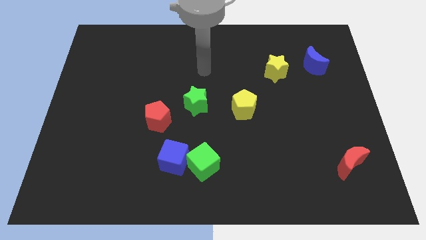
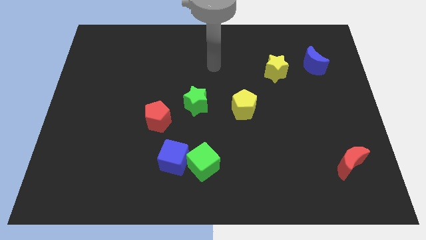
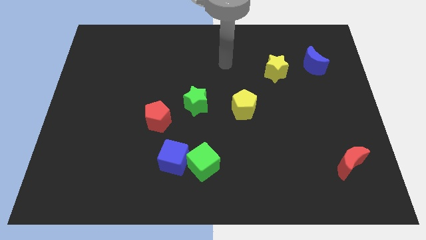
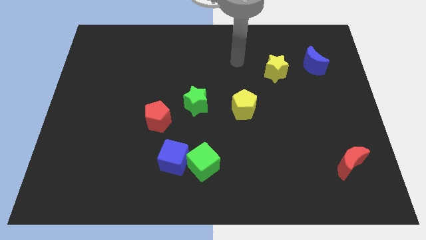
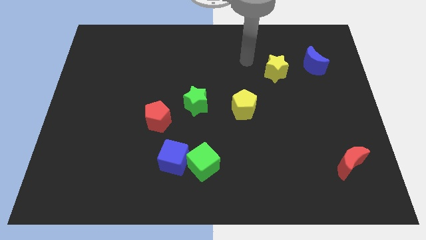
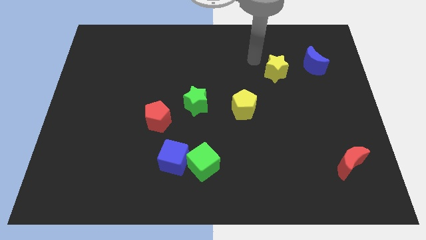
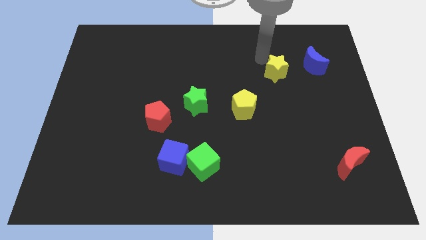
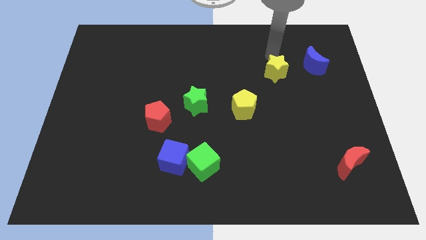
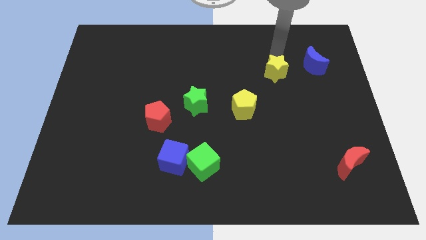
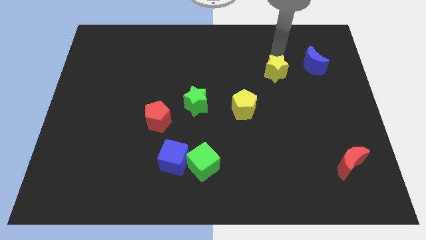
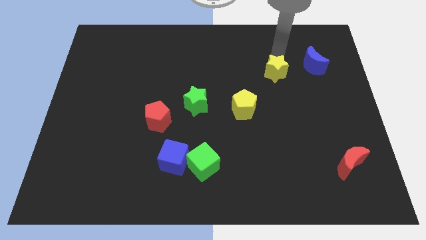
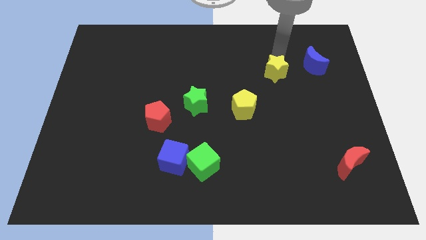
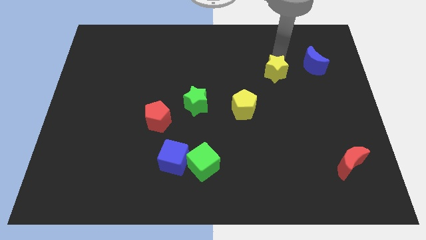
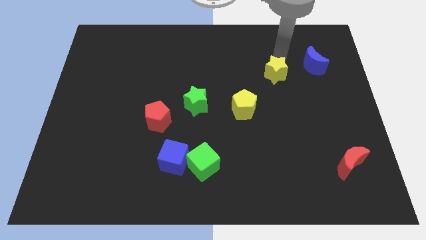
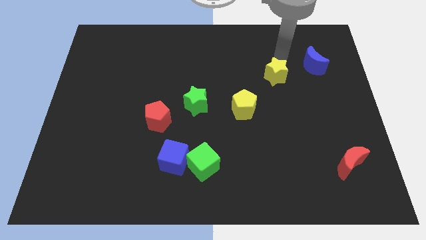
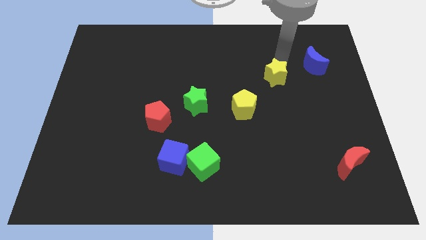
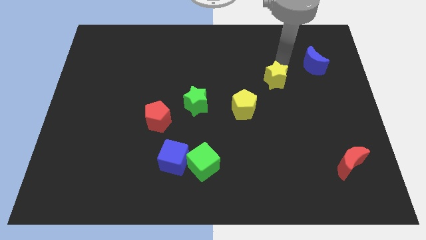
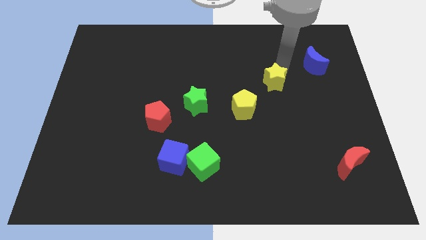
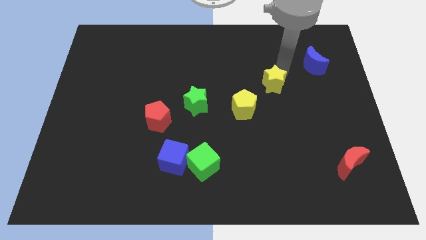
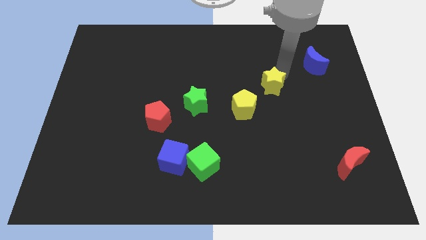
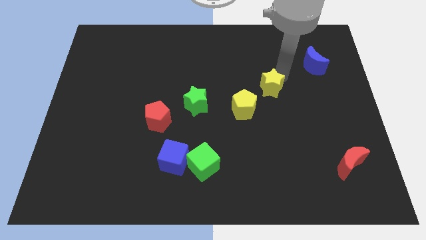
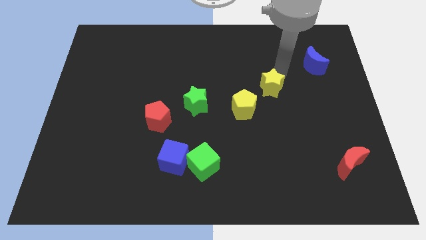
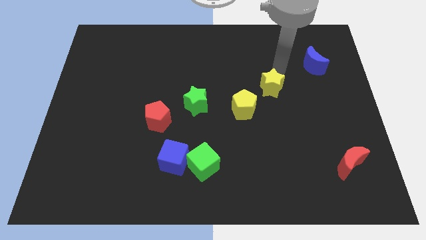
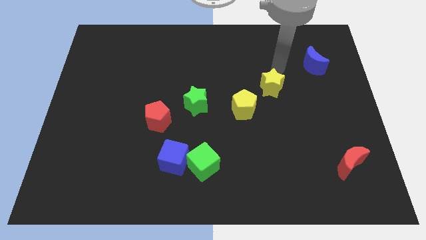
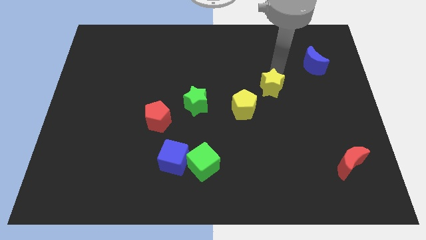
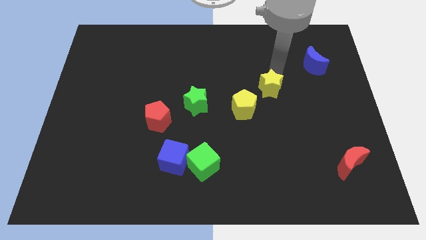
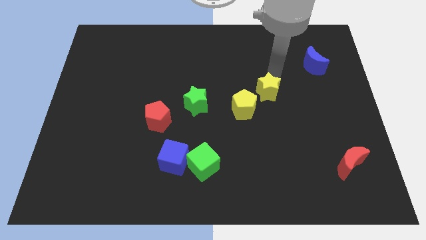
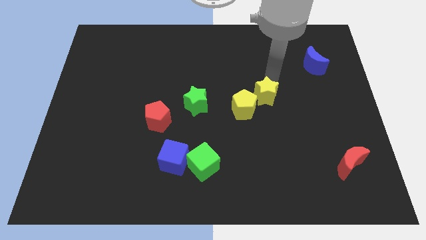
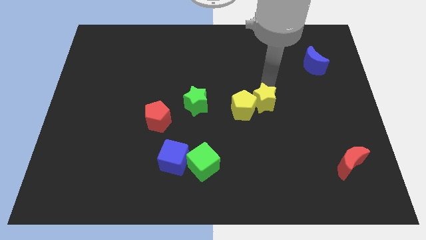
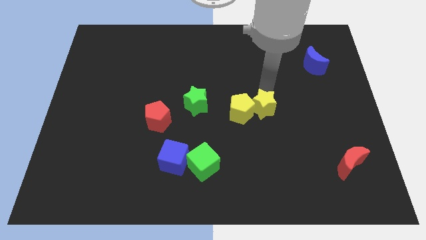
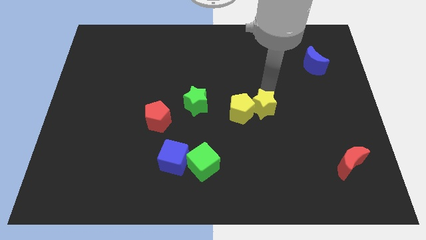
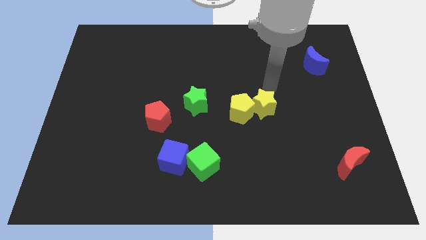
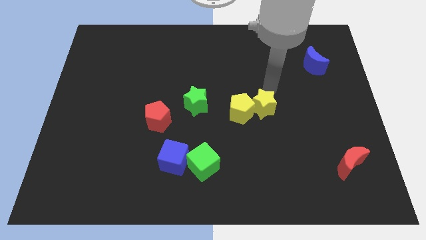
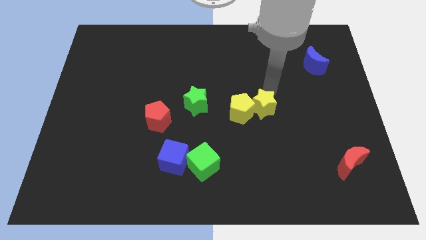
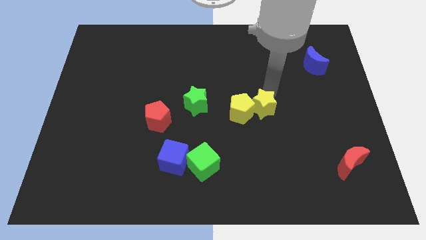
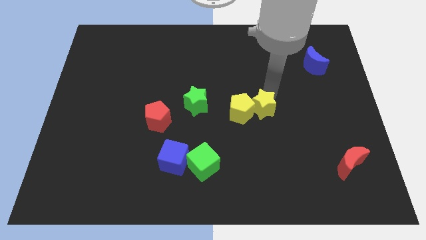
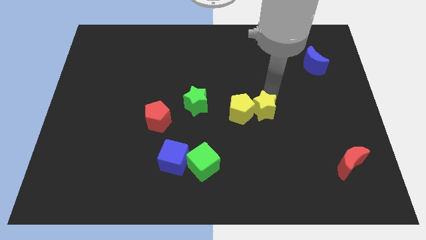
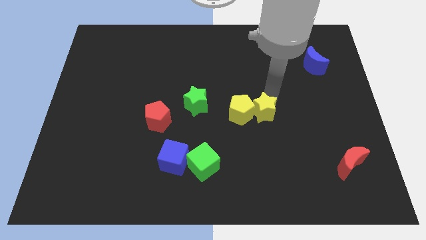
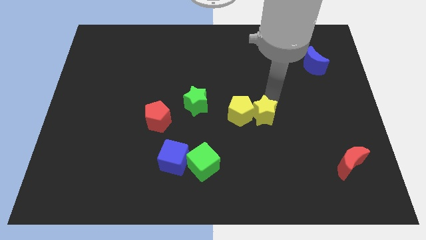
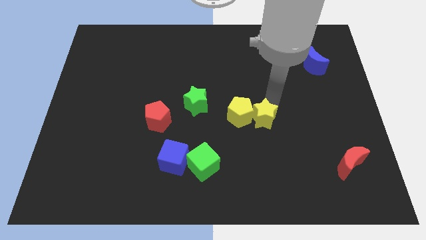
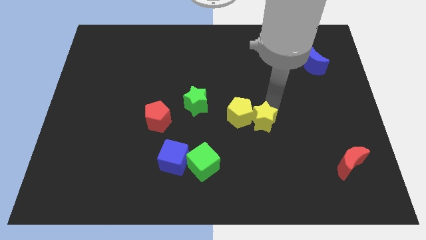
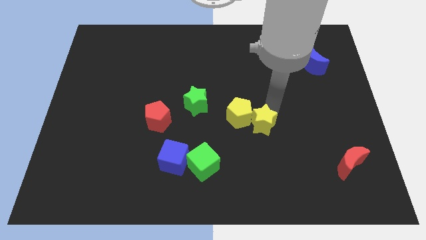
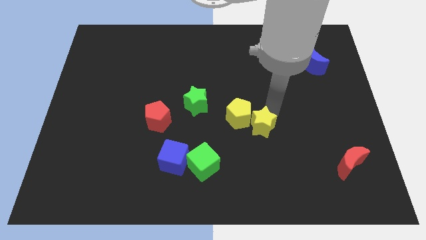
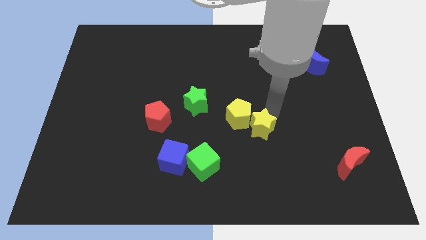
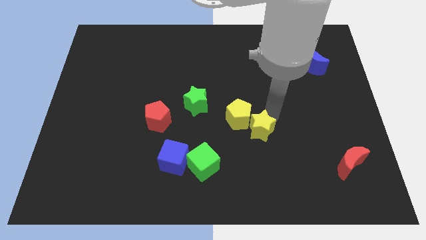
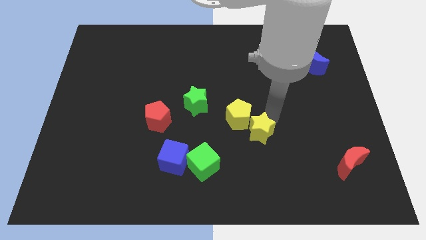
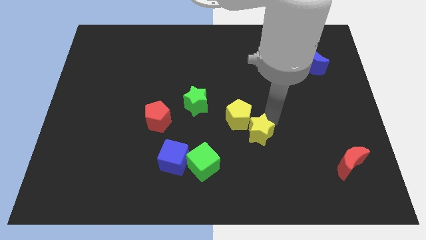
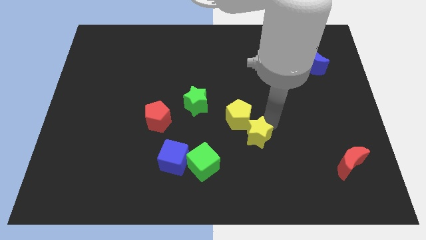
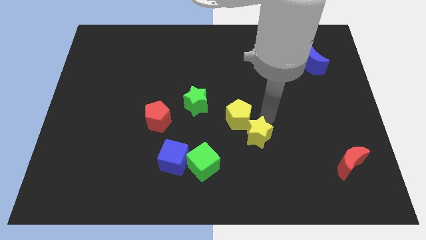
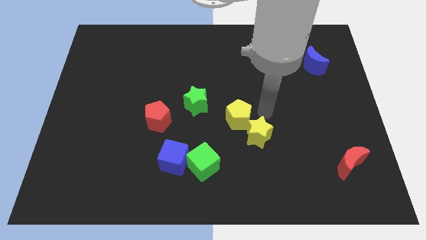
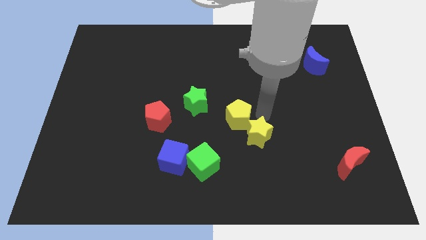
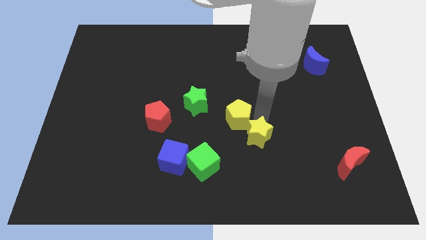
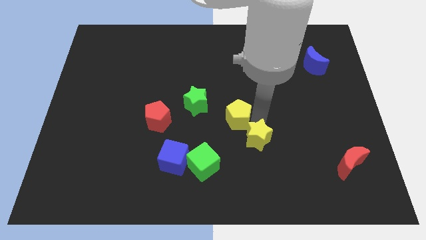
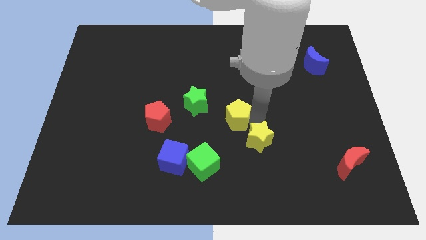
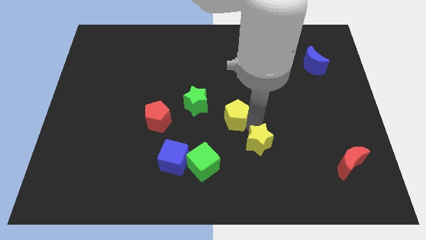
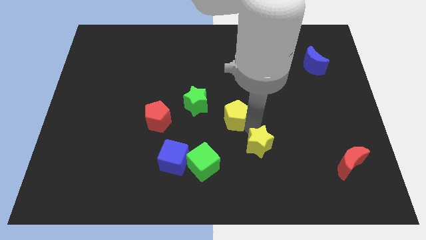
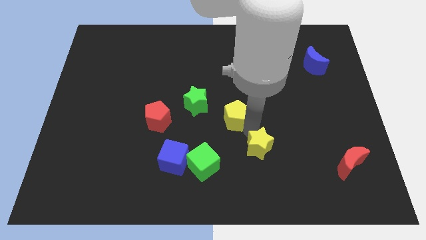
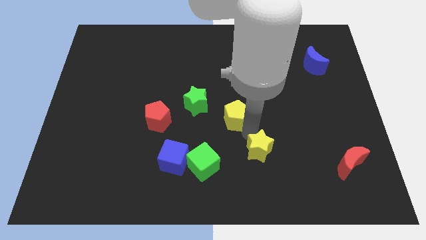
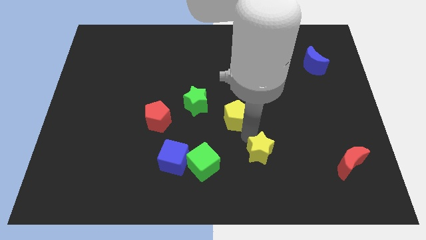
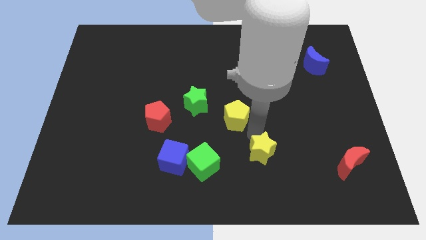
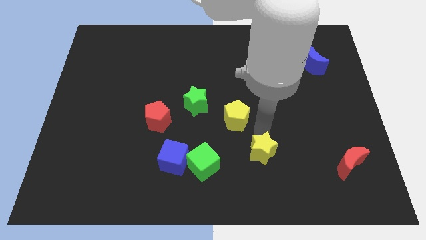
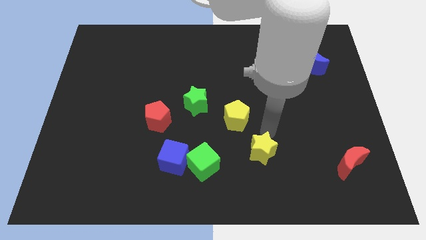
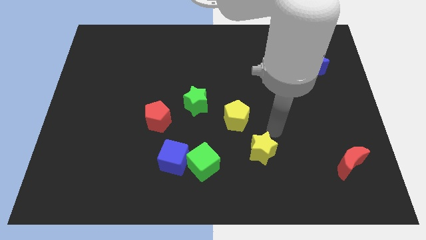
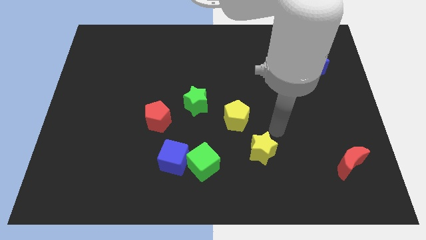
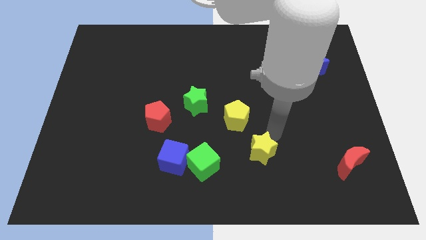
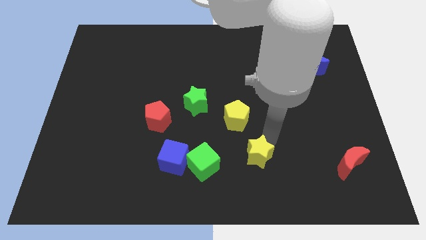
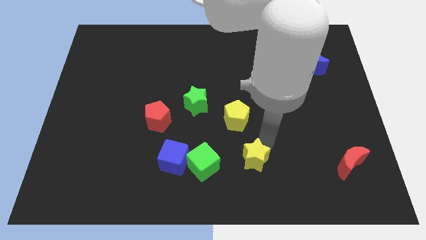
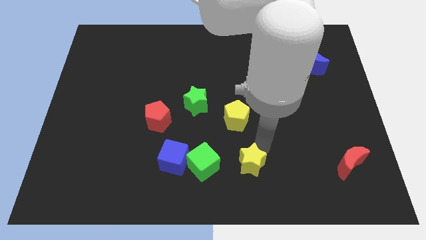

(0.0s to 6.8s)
move the yellow star to the bottom side
